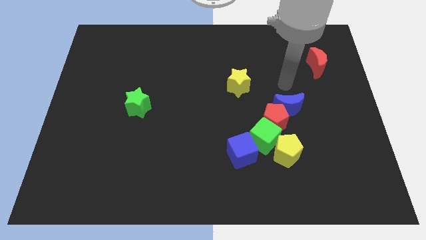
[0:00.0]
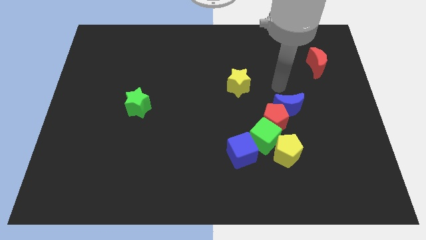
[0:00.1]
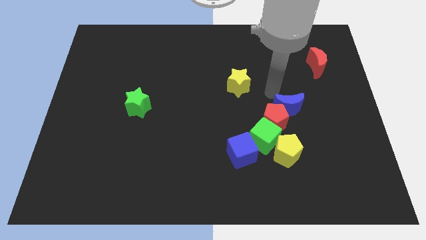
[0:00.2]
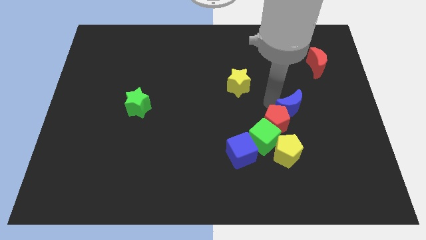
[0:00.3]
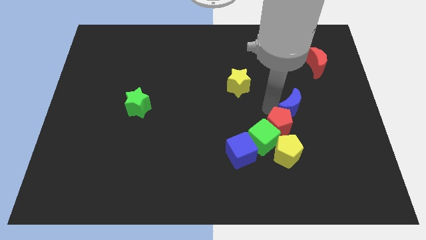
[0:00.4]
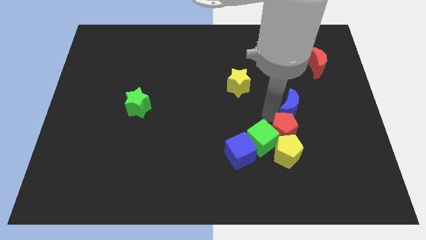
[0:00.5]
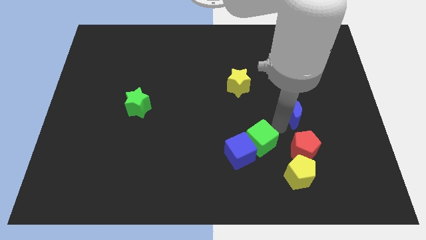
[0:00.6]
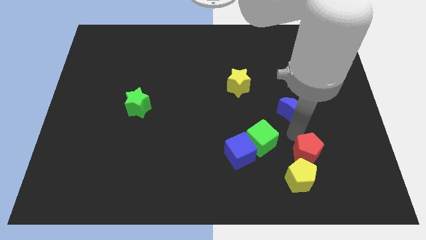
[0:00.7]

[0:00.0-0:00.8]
pull the blue moon apart from the red pentagon

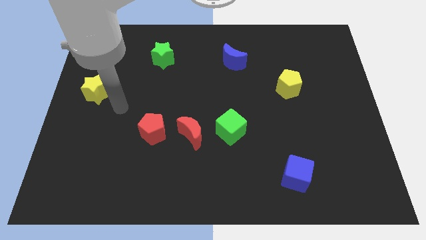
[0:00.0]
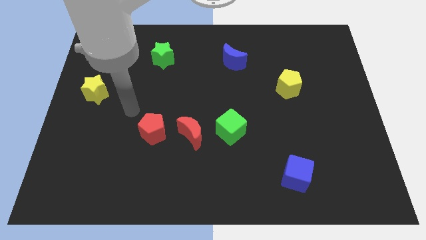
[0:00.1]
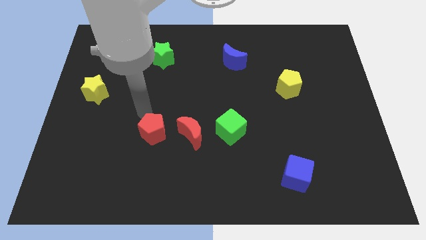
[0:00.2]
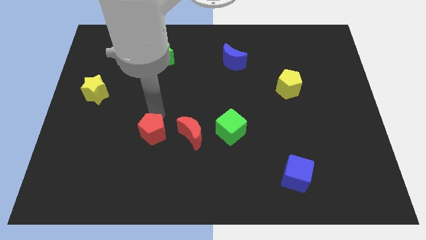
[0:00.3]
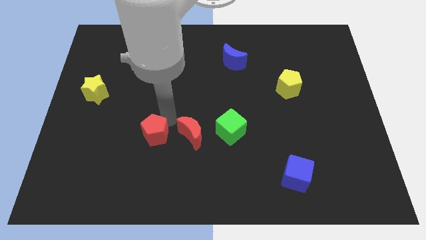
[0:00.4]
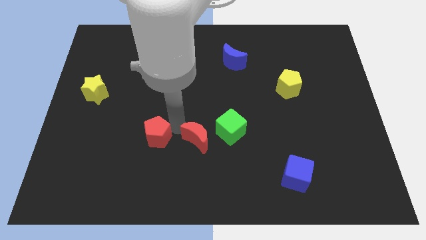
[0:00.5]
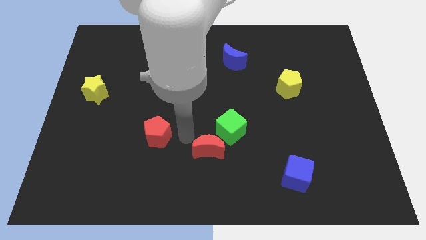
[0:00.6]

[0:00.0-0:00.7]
pull the red pentagon apart from the red moon

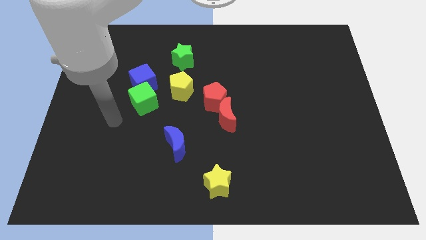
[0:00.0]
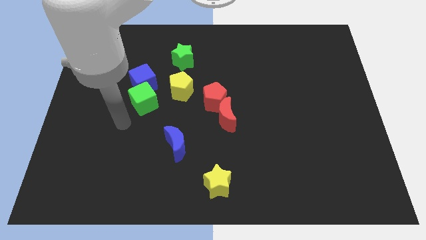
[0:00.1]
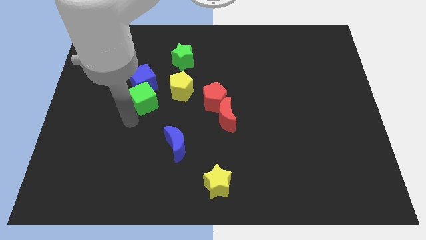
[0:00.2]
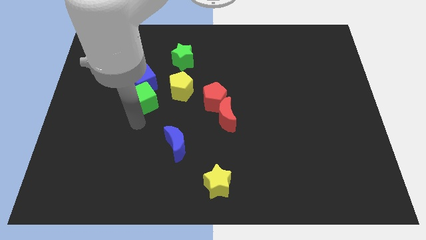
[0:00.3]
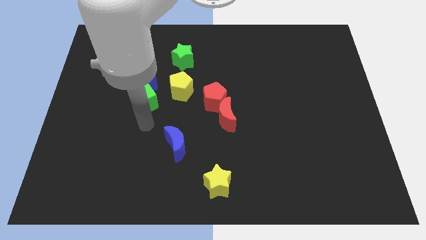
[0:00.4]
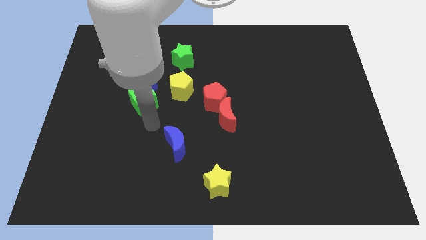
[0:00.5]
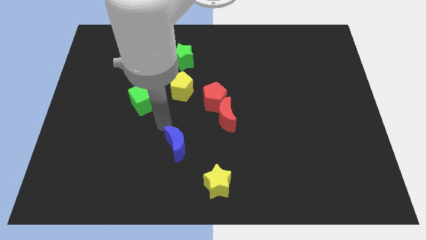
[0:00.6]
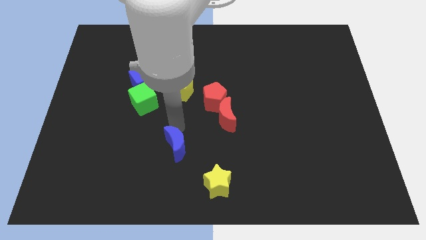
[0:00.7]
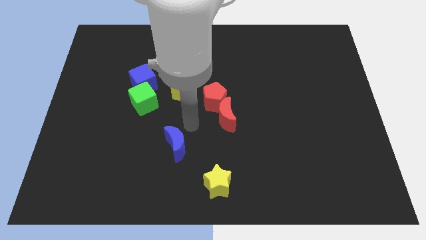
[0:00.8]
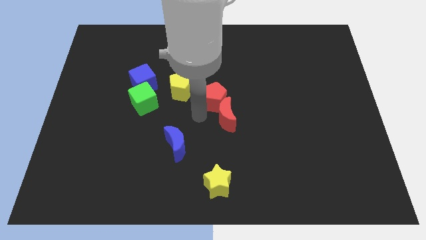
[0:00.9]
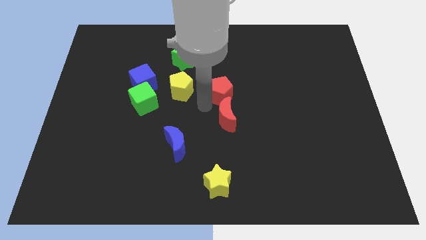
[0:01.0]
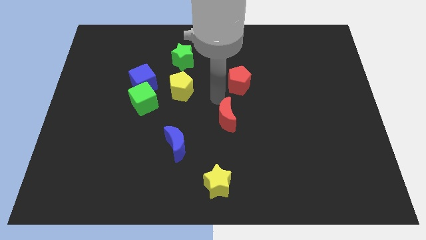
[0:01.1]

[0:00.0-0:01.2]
separate the red moon from the red pentagon

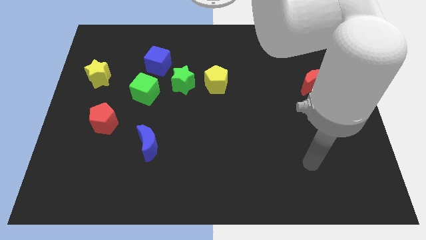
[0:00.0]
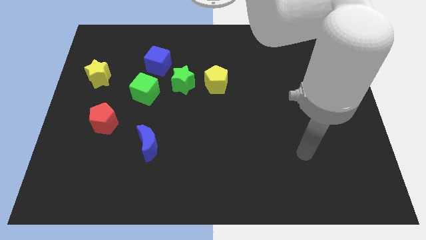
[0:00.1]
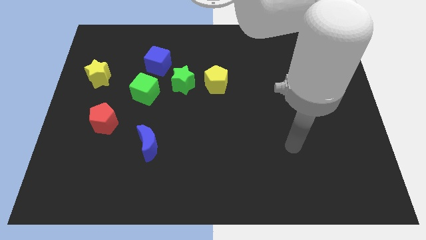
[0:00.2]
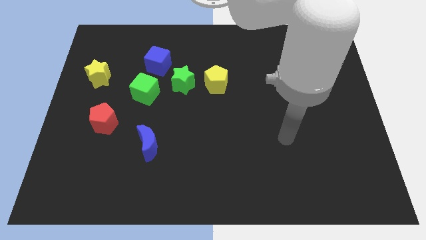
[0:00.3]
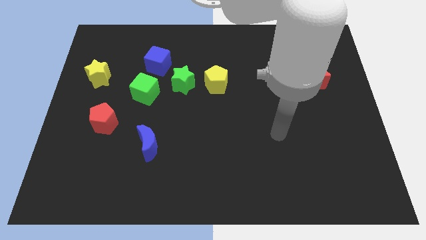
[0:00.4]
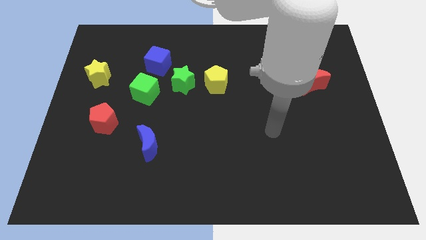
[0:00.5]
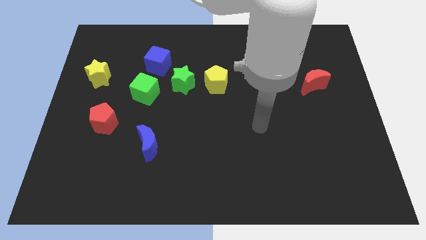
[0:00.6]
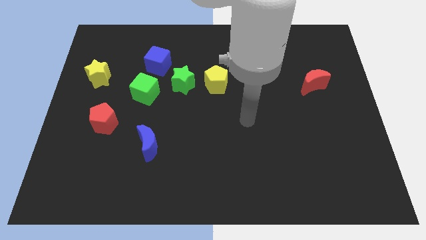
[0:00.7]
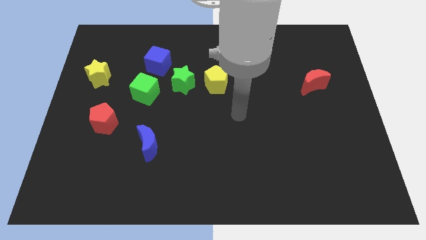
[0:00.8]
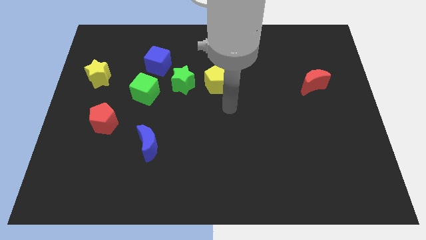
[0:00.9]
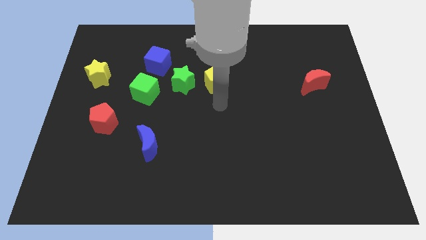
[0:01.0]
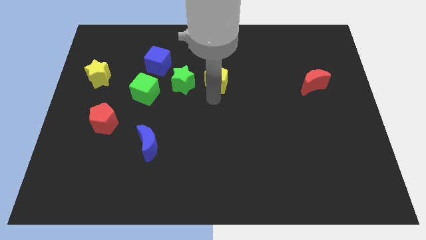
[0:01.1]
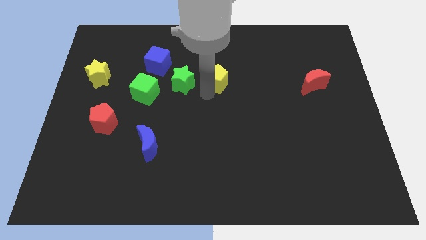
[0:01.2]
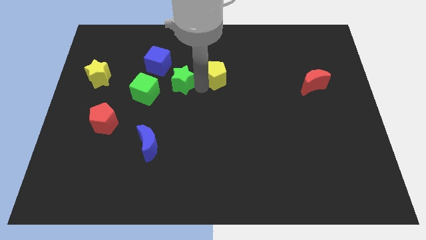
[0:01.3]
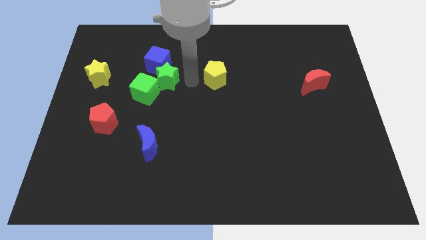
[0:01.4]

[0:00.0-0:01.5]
separate the yellow pentagon from the green star

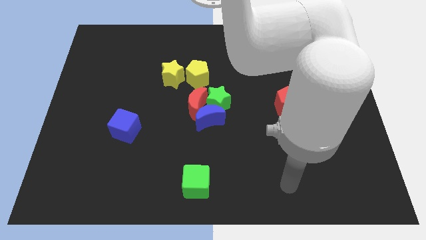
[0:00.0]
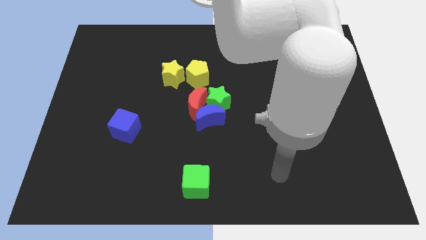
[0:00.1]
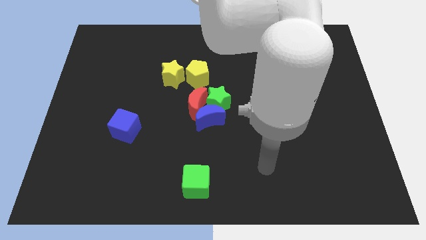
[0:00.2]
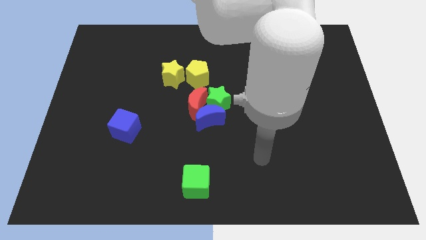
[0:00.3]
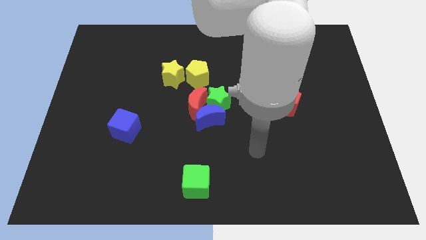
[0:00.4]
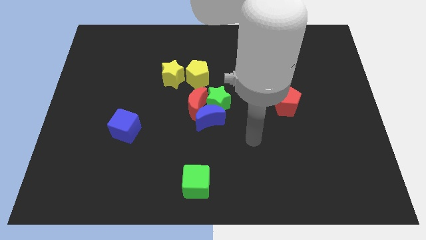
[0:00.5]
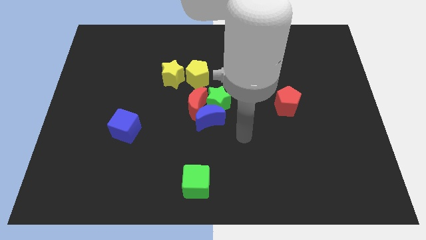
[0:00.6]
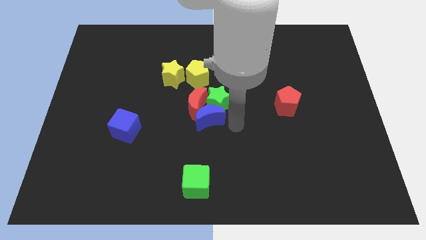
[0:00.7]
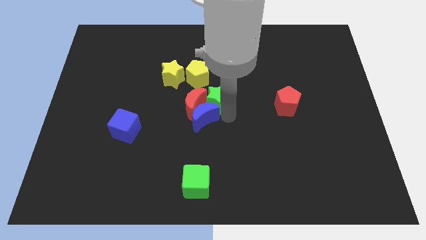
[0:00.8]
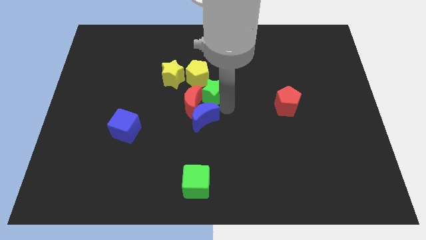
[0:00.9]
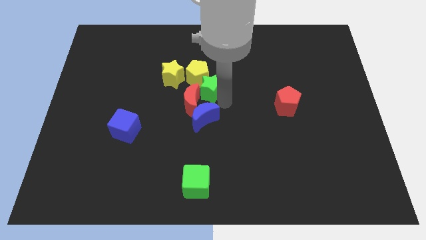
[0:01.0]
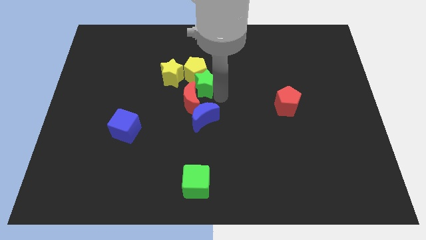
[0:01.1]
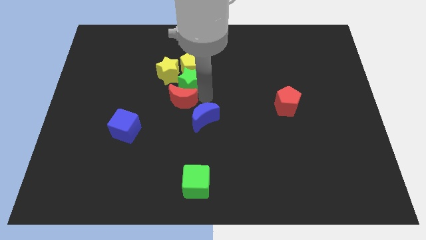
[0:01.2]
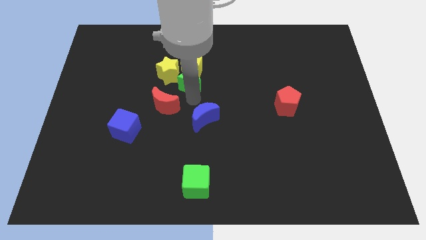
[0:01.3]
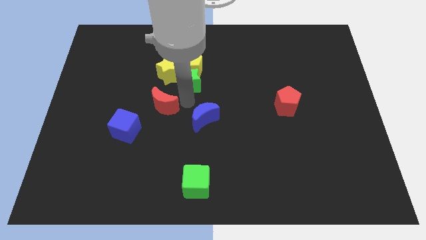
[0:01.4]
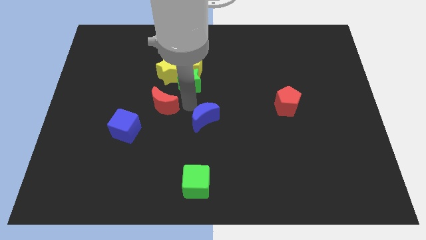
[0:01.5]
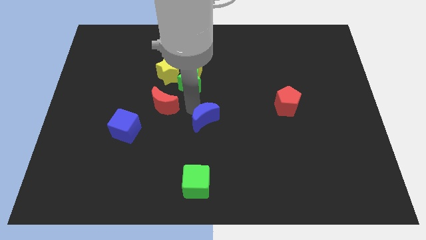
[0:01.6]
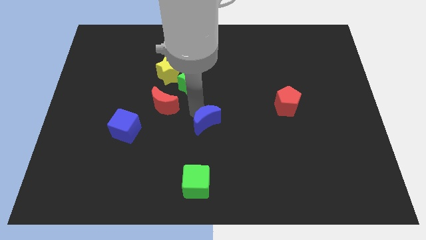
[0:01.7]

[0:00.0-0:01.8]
pull the blue moon apart from the red moon and green star

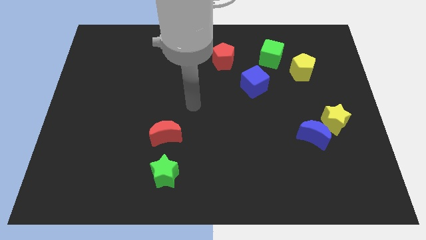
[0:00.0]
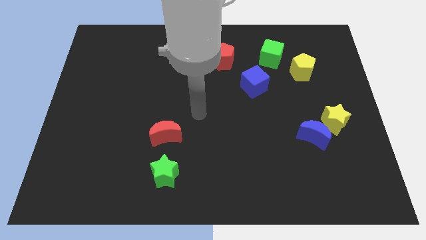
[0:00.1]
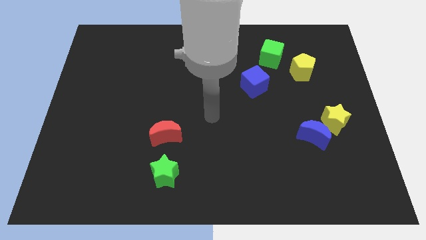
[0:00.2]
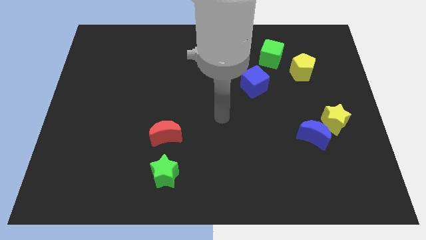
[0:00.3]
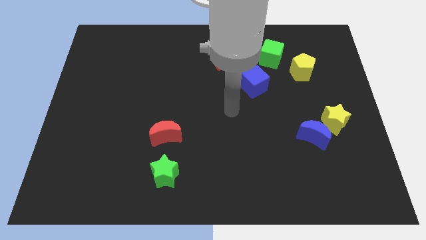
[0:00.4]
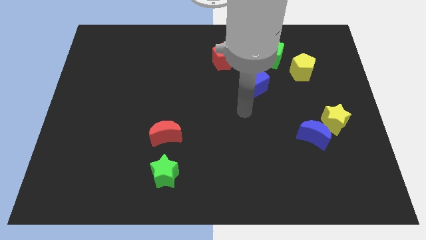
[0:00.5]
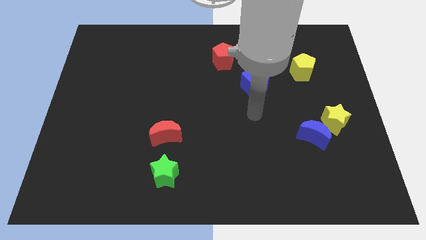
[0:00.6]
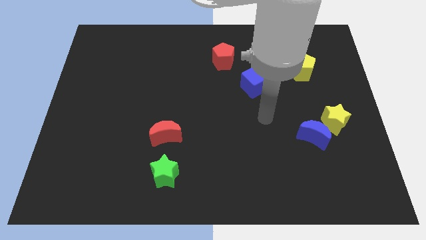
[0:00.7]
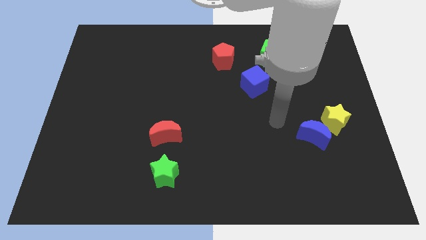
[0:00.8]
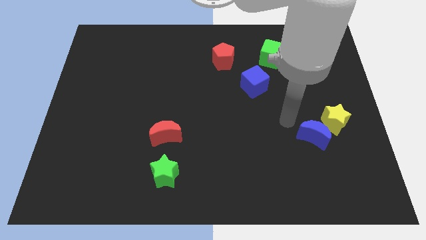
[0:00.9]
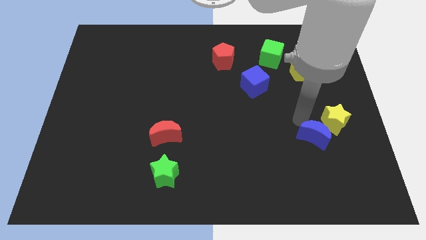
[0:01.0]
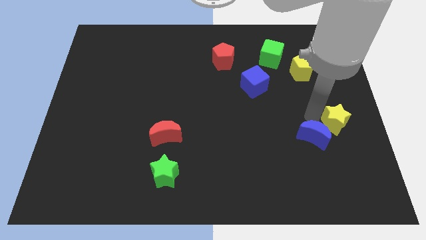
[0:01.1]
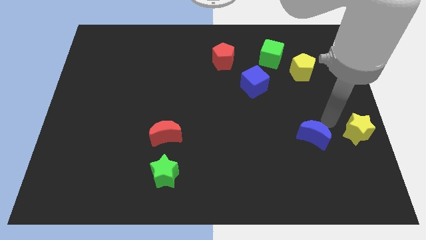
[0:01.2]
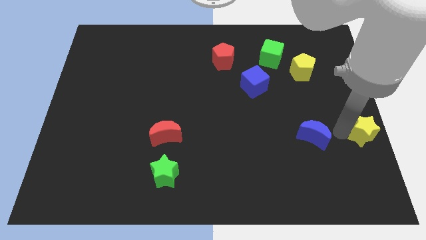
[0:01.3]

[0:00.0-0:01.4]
move the blue moon away from the yellow star

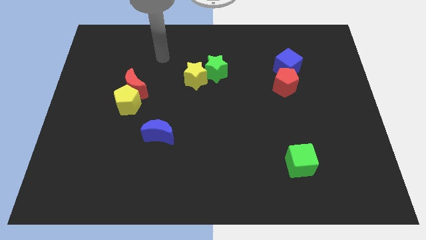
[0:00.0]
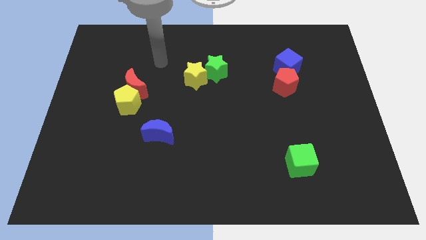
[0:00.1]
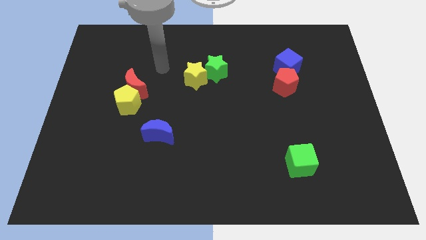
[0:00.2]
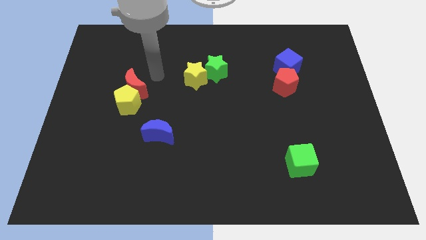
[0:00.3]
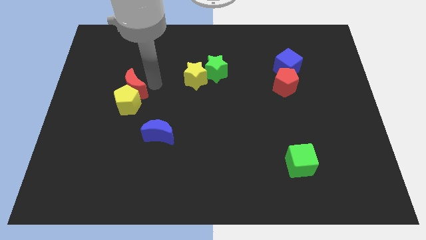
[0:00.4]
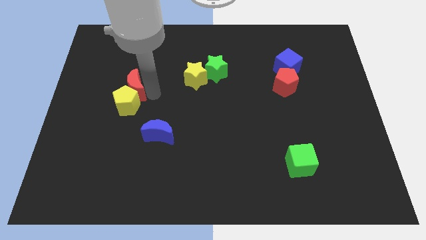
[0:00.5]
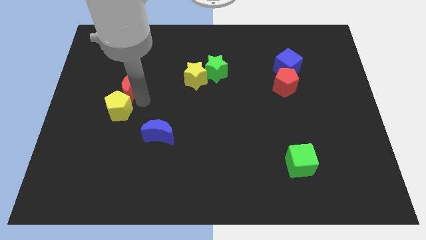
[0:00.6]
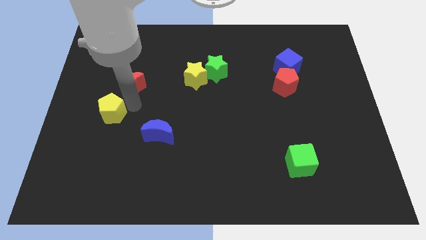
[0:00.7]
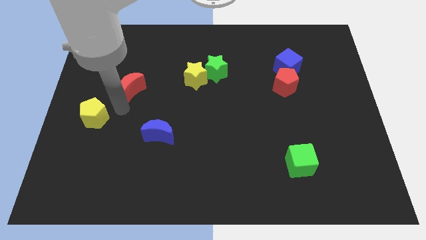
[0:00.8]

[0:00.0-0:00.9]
move the red moon away from the yellow pentagon

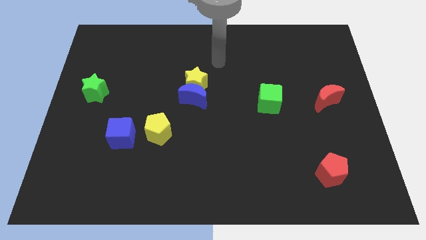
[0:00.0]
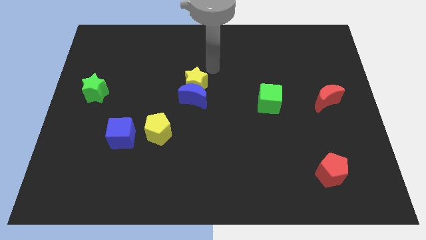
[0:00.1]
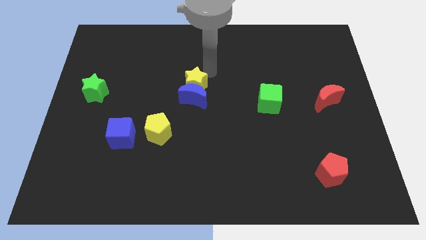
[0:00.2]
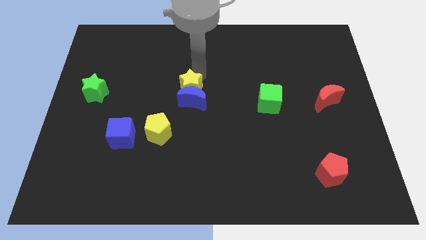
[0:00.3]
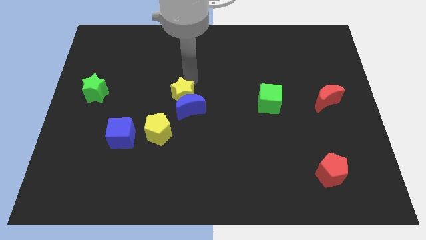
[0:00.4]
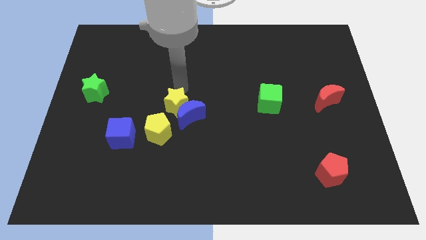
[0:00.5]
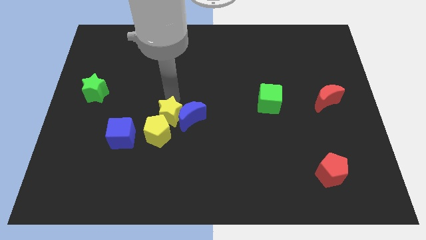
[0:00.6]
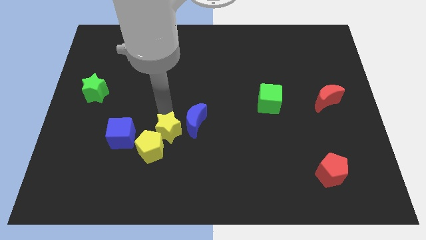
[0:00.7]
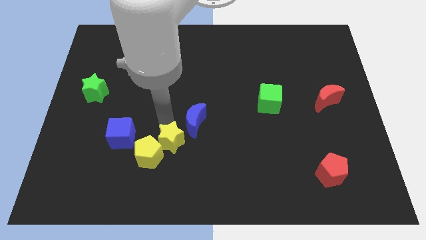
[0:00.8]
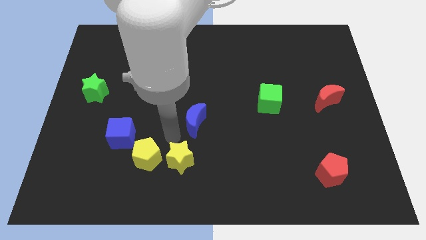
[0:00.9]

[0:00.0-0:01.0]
pull the blue moon apart from the yellow star
